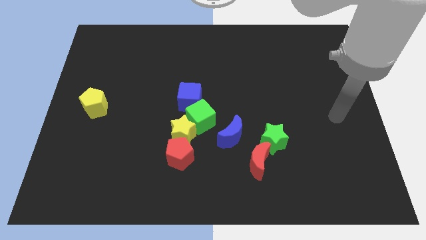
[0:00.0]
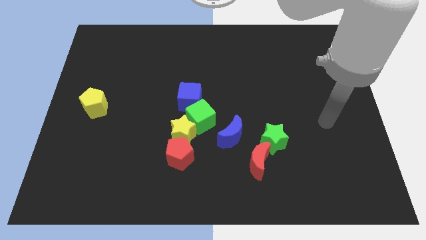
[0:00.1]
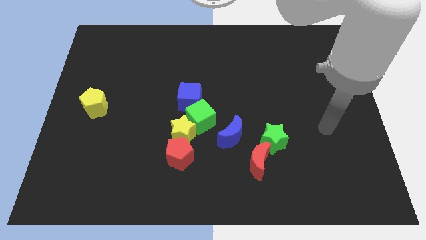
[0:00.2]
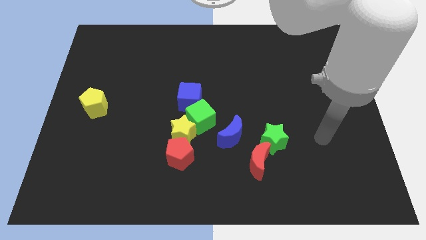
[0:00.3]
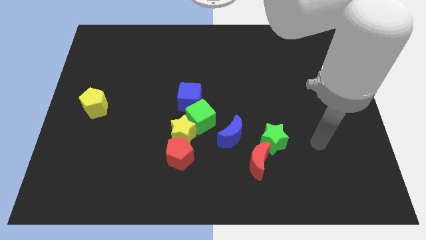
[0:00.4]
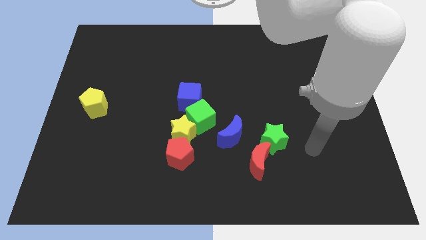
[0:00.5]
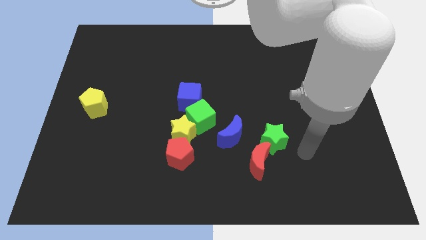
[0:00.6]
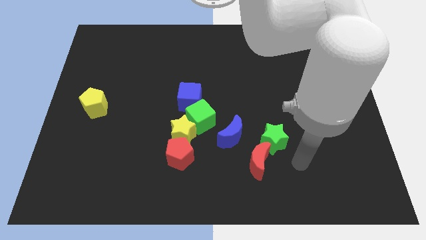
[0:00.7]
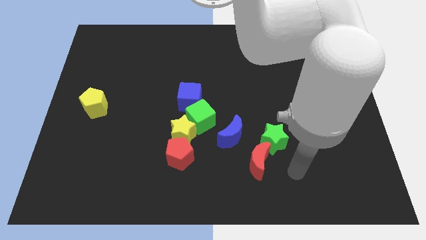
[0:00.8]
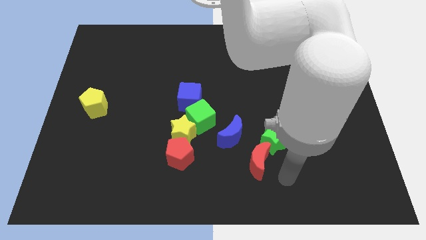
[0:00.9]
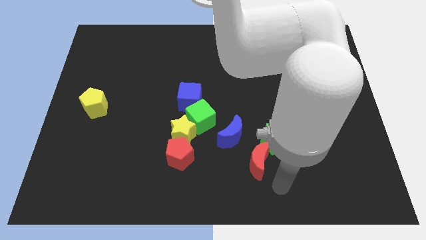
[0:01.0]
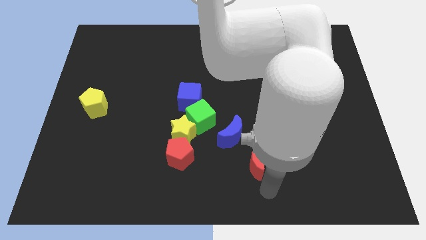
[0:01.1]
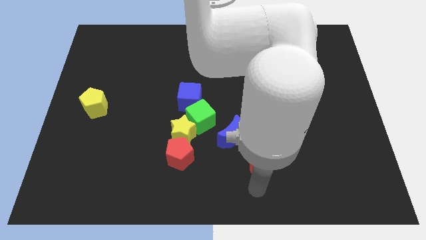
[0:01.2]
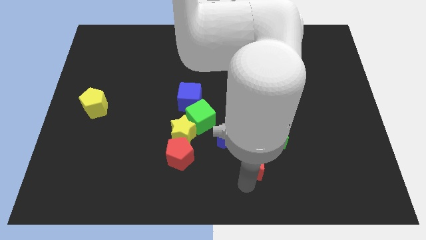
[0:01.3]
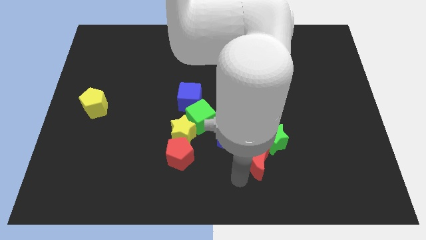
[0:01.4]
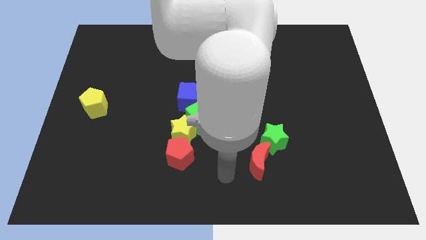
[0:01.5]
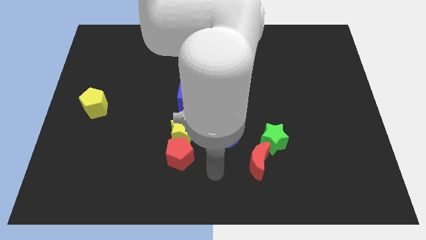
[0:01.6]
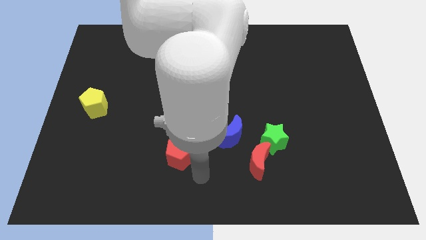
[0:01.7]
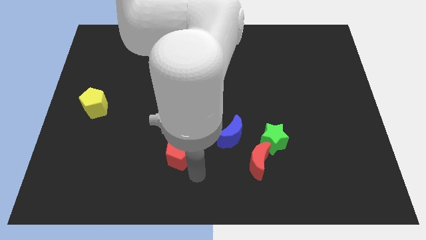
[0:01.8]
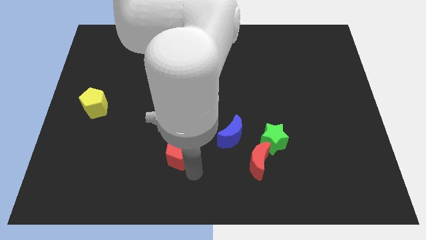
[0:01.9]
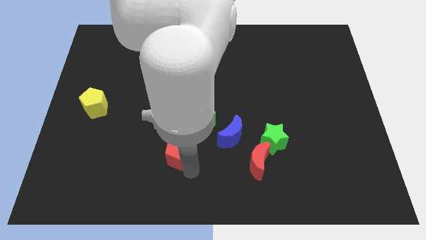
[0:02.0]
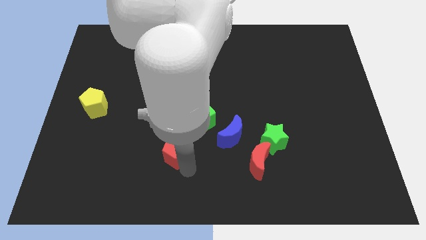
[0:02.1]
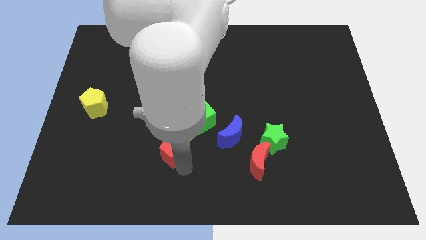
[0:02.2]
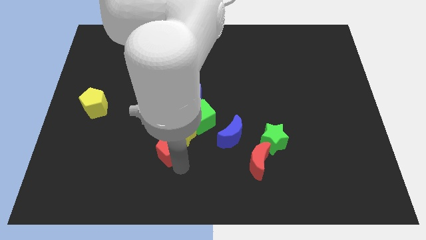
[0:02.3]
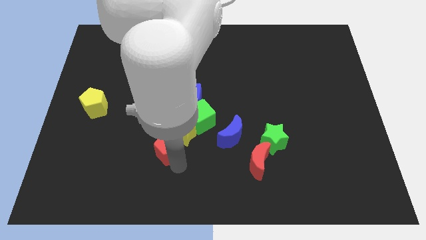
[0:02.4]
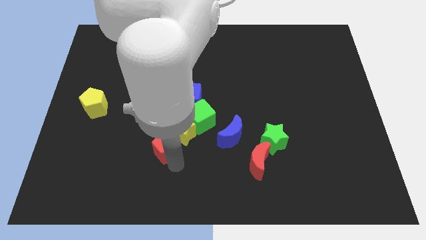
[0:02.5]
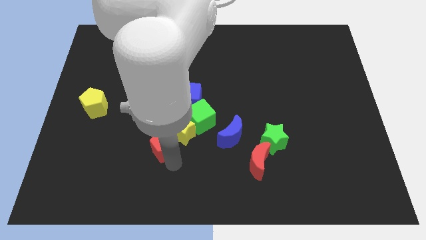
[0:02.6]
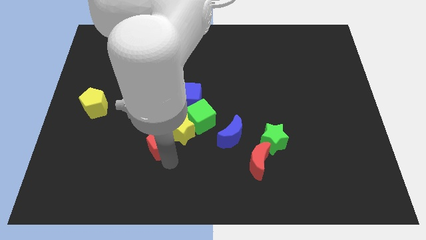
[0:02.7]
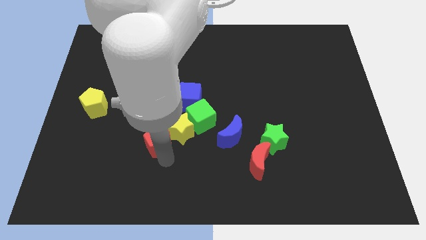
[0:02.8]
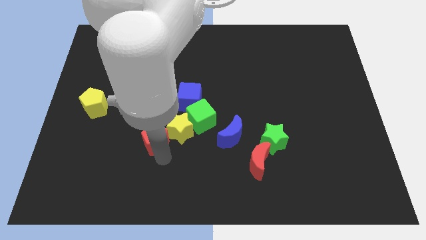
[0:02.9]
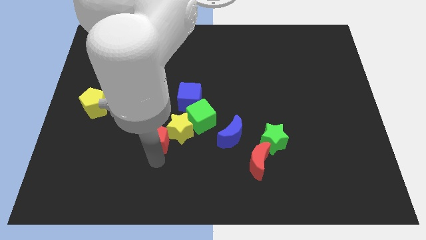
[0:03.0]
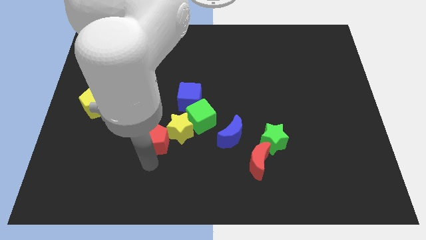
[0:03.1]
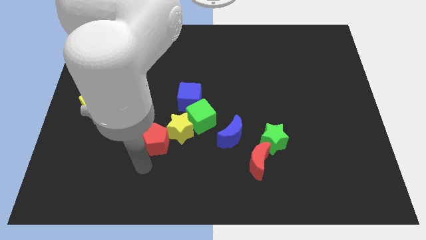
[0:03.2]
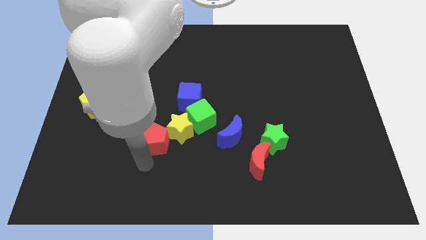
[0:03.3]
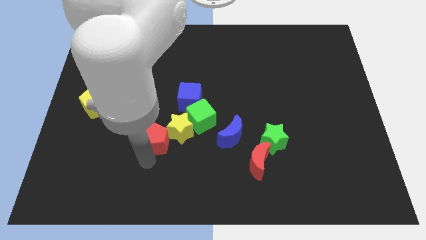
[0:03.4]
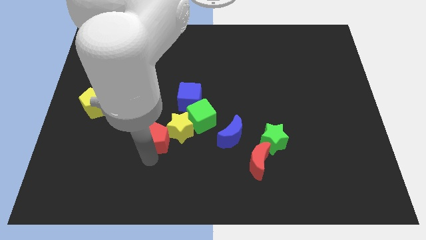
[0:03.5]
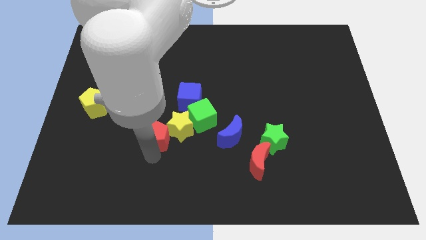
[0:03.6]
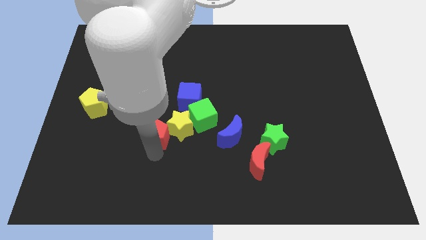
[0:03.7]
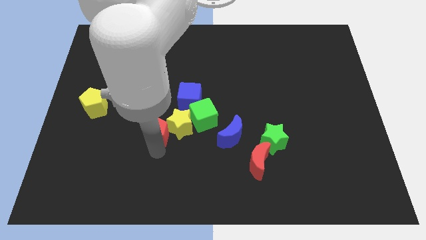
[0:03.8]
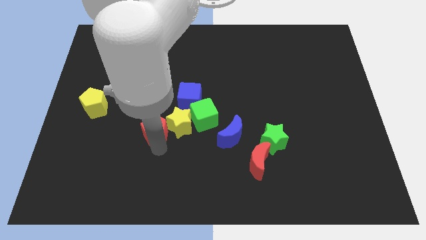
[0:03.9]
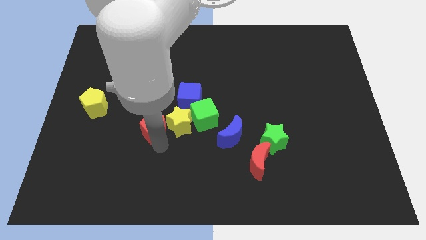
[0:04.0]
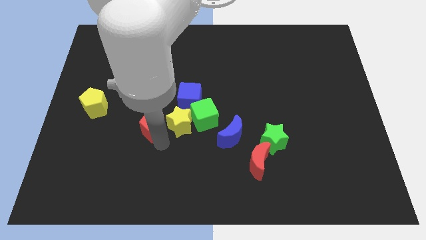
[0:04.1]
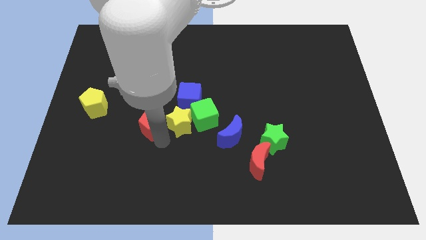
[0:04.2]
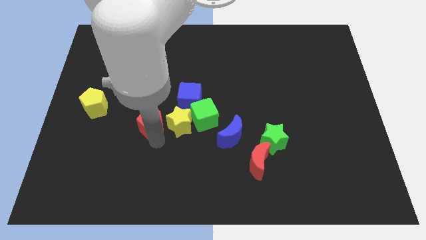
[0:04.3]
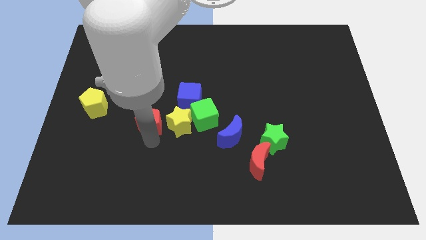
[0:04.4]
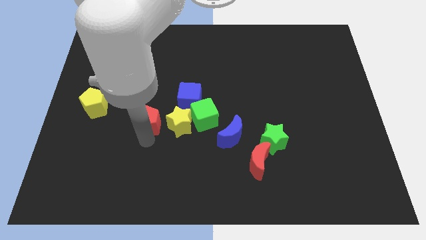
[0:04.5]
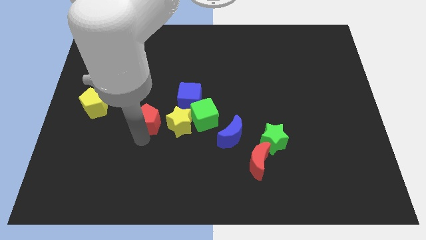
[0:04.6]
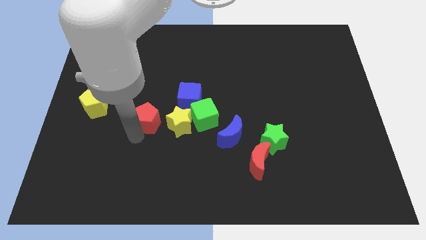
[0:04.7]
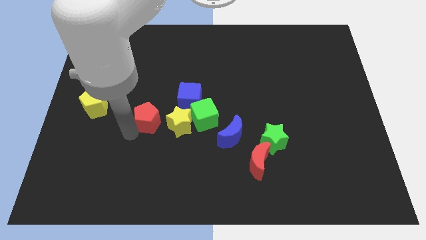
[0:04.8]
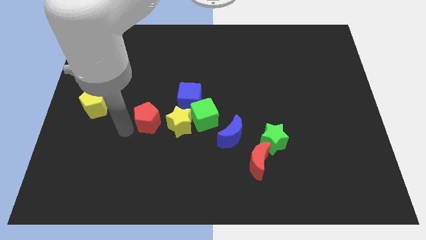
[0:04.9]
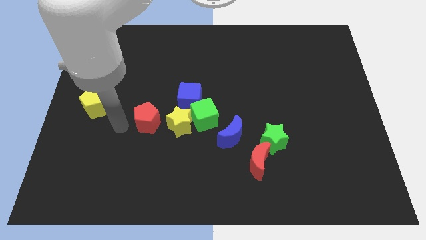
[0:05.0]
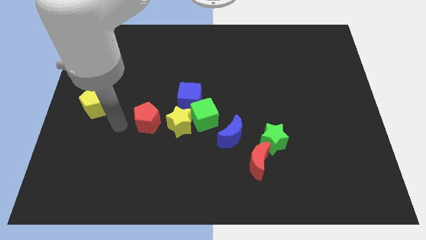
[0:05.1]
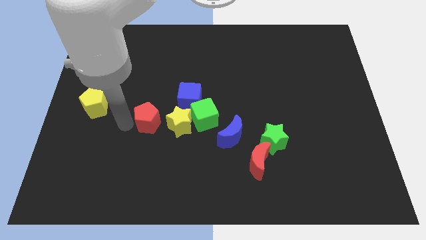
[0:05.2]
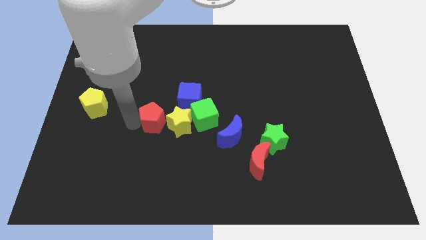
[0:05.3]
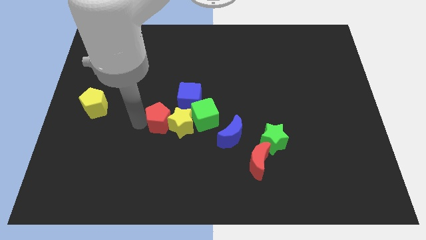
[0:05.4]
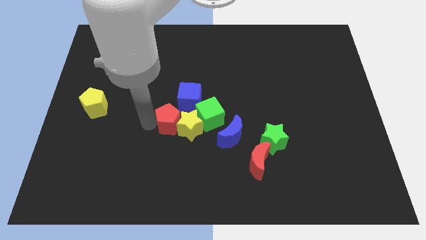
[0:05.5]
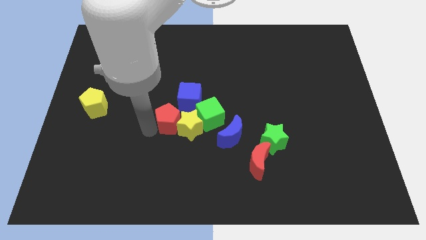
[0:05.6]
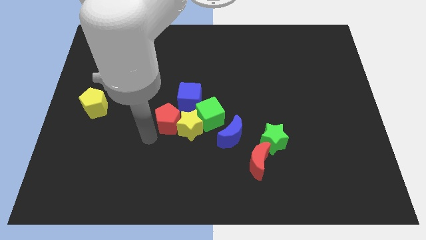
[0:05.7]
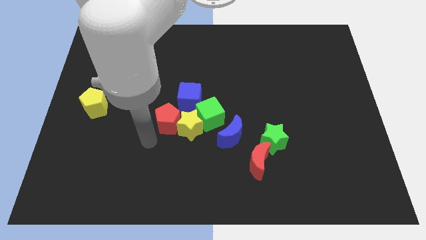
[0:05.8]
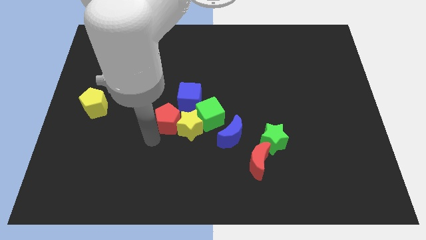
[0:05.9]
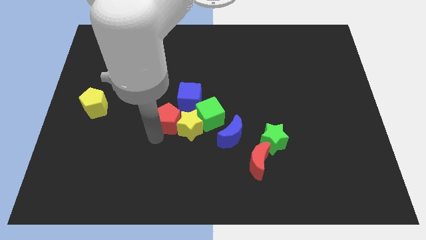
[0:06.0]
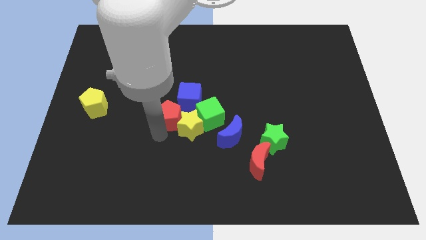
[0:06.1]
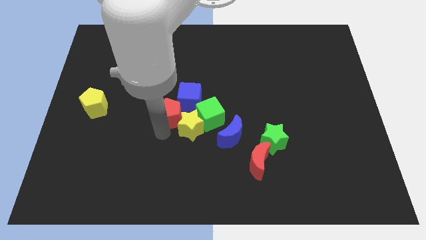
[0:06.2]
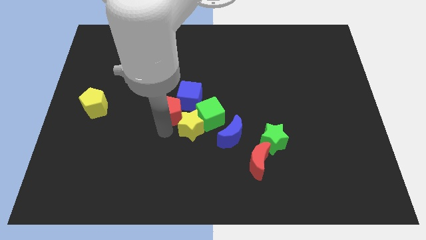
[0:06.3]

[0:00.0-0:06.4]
put the red pentagon towards the blue cube

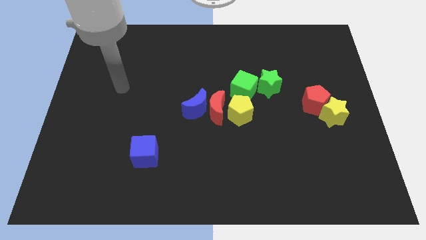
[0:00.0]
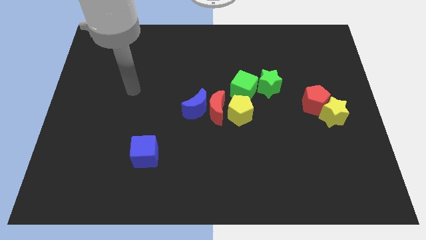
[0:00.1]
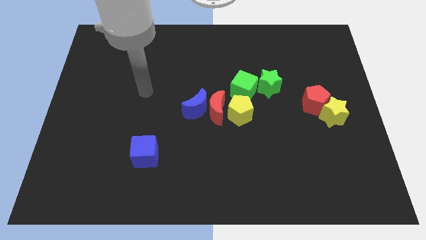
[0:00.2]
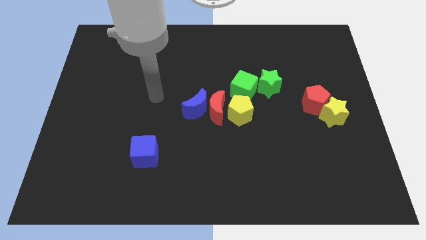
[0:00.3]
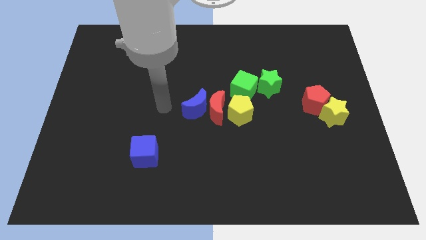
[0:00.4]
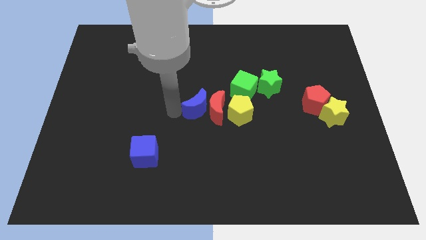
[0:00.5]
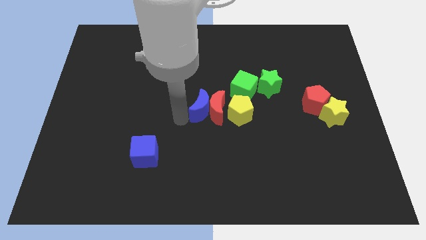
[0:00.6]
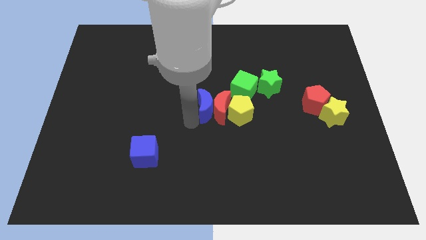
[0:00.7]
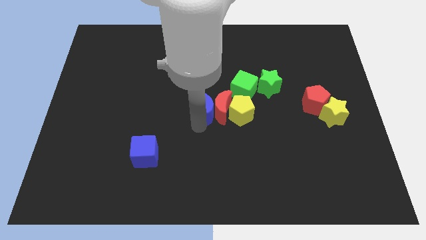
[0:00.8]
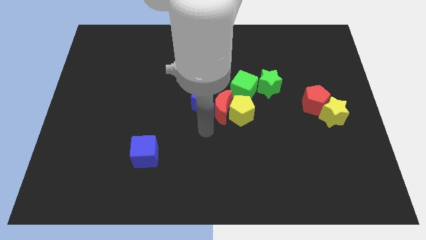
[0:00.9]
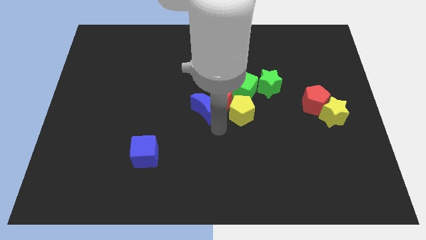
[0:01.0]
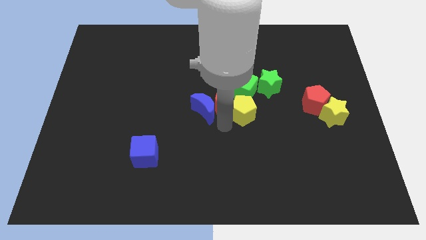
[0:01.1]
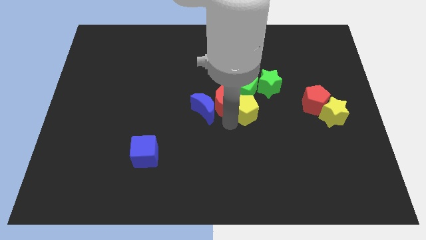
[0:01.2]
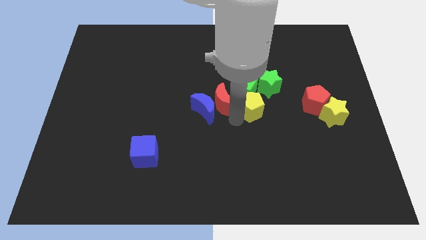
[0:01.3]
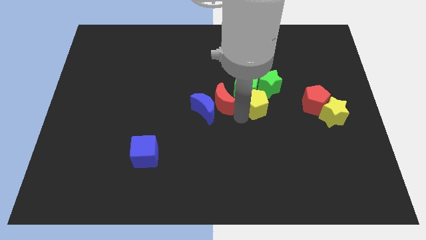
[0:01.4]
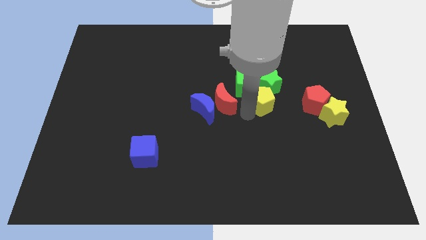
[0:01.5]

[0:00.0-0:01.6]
move the yellow pentagon to the green star
